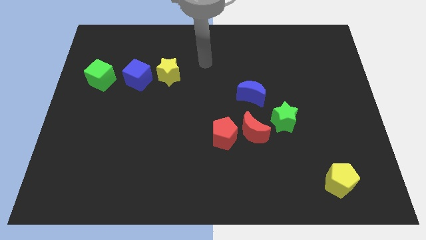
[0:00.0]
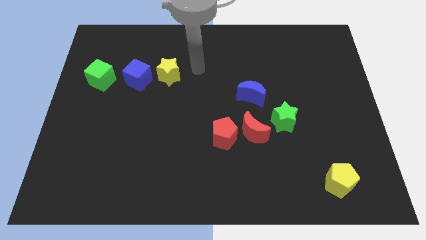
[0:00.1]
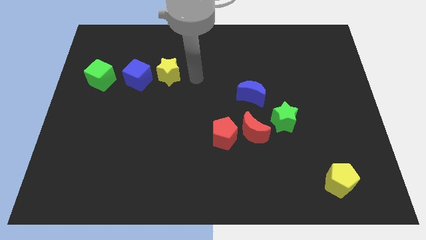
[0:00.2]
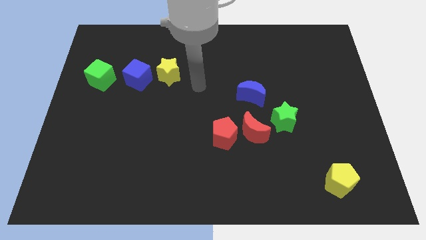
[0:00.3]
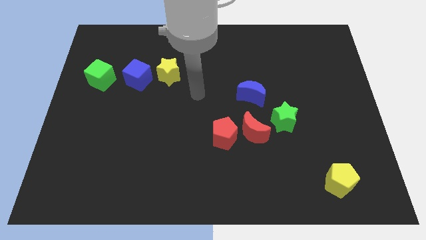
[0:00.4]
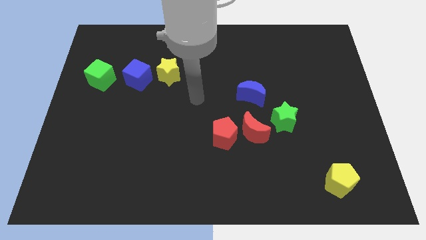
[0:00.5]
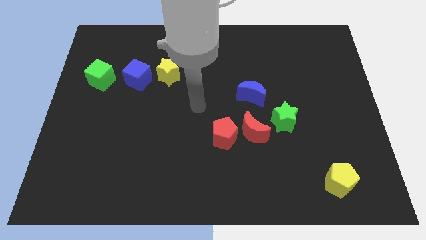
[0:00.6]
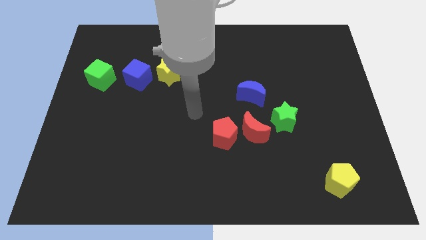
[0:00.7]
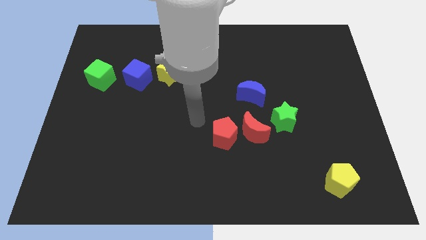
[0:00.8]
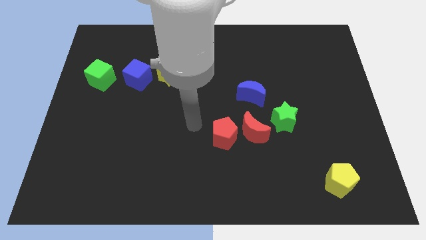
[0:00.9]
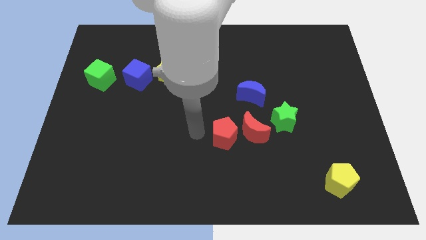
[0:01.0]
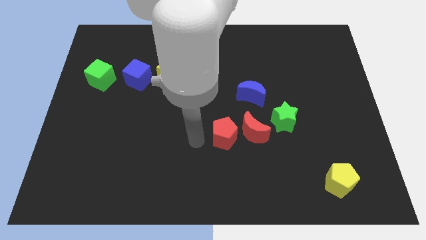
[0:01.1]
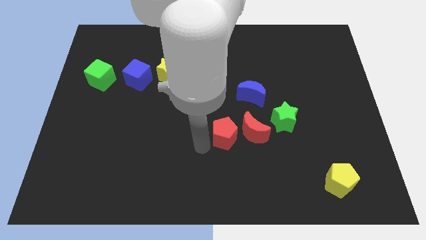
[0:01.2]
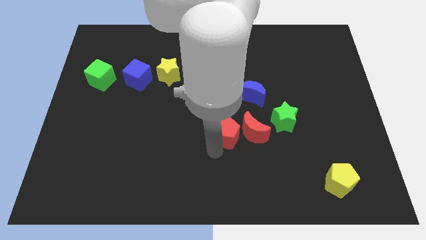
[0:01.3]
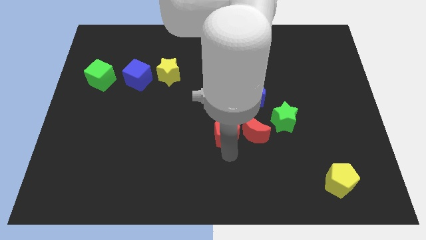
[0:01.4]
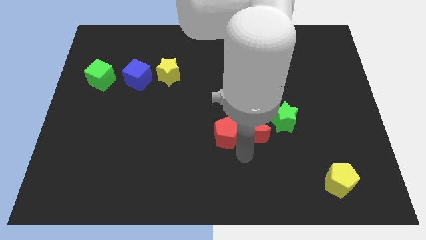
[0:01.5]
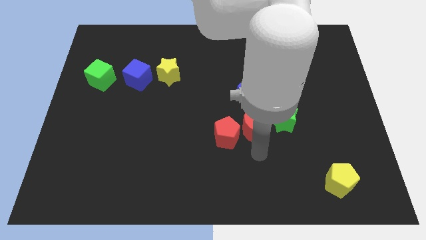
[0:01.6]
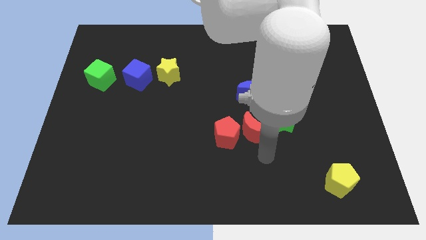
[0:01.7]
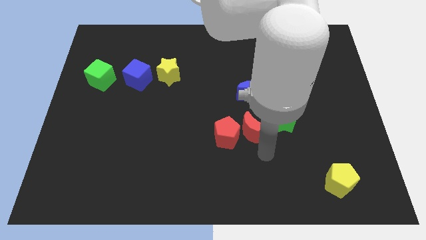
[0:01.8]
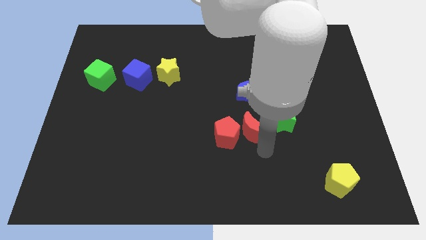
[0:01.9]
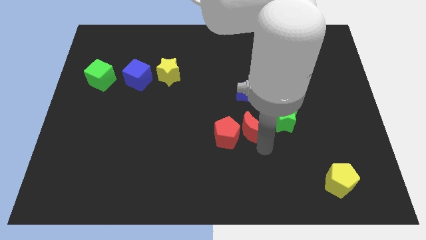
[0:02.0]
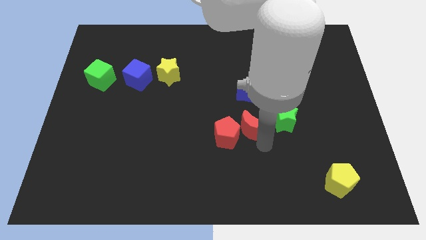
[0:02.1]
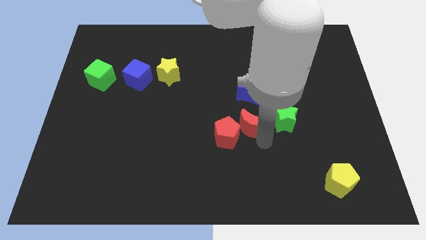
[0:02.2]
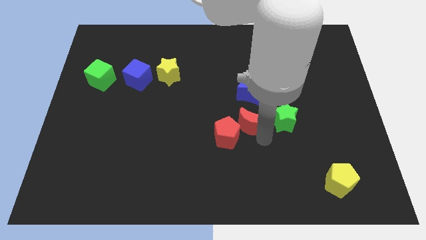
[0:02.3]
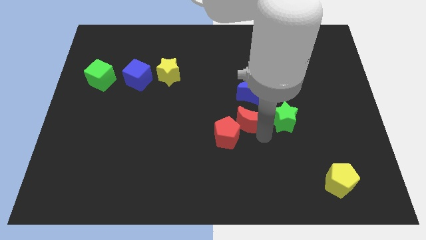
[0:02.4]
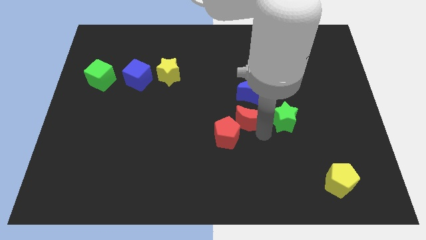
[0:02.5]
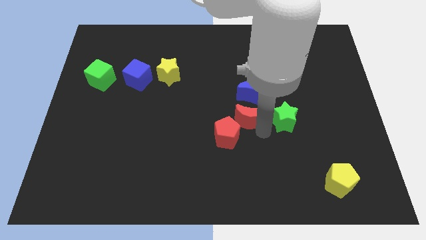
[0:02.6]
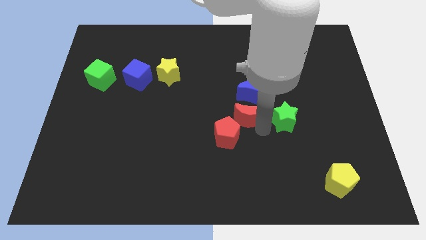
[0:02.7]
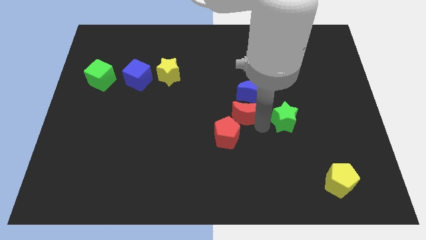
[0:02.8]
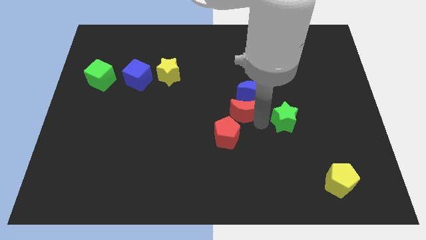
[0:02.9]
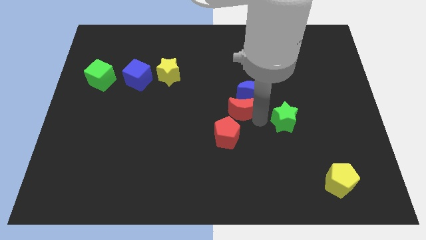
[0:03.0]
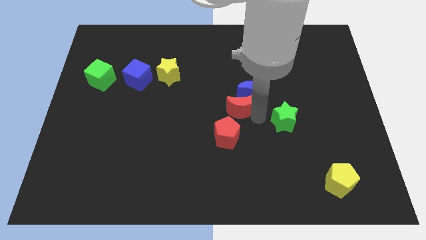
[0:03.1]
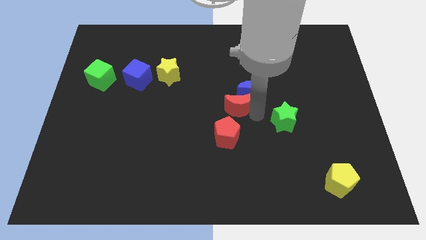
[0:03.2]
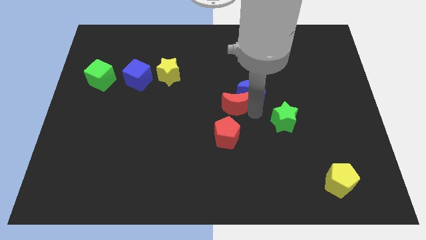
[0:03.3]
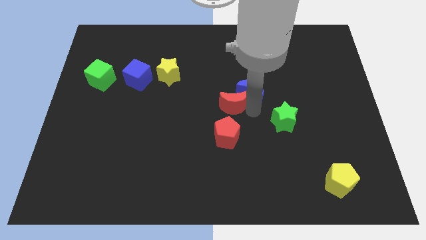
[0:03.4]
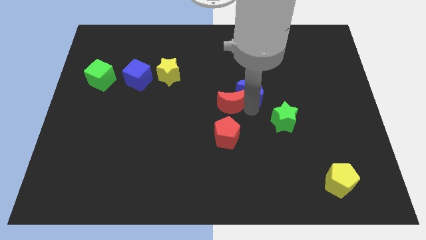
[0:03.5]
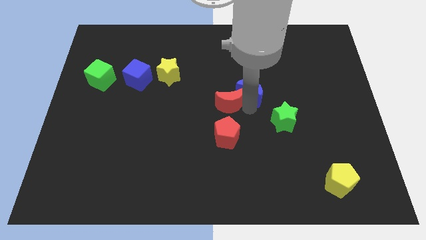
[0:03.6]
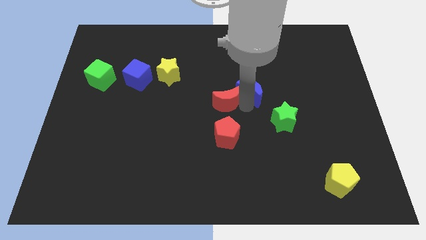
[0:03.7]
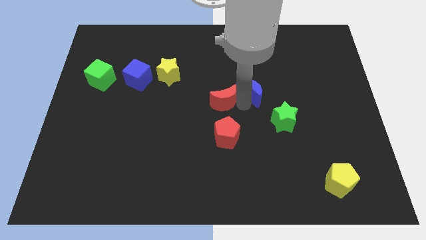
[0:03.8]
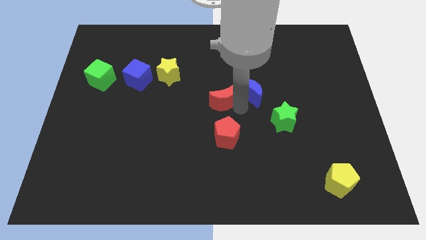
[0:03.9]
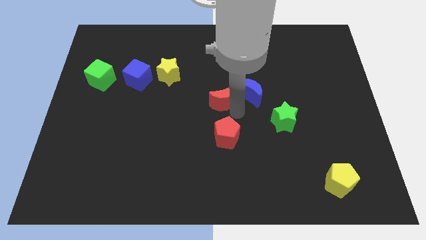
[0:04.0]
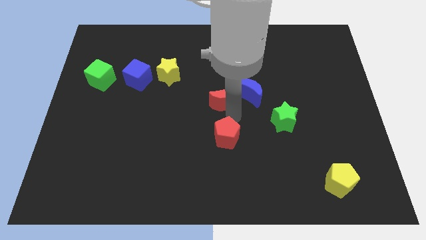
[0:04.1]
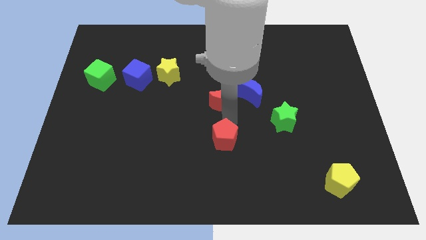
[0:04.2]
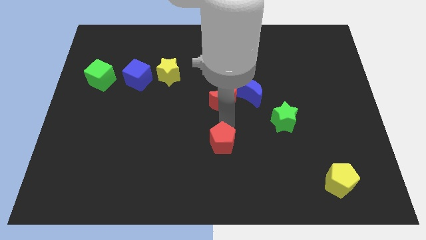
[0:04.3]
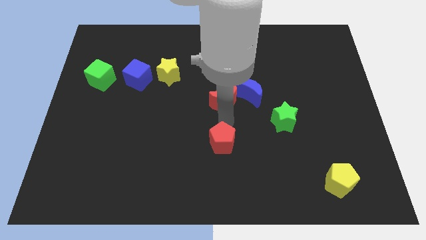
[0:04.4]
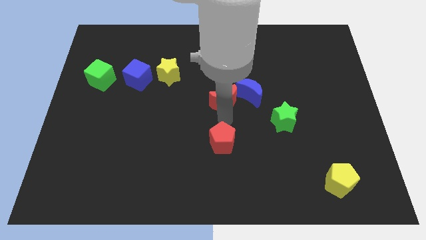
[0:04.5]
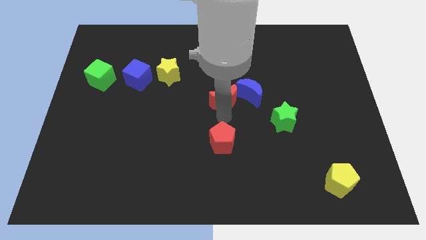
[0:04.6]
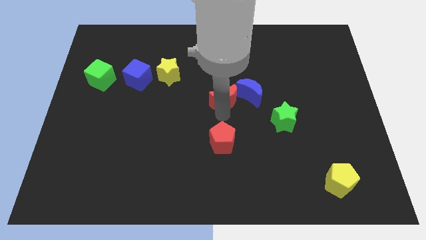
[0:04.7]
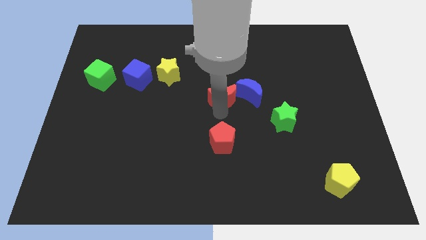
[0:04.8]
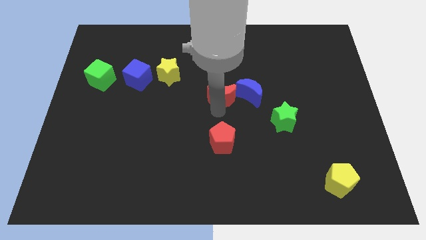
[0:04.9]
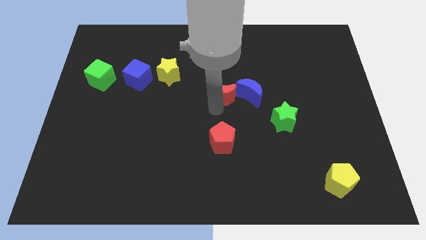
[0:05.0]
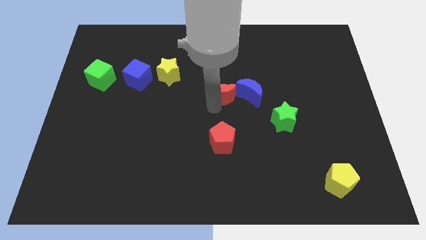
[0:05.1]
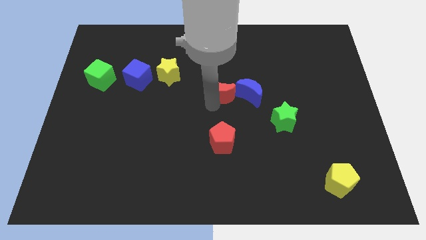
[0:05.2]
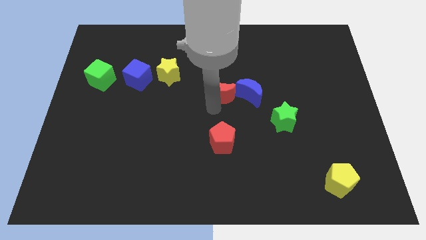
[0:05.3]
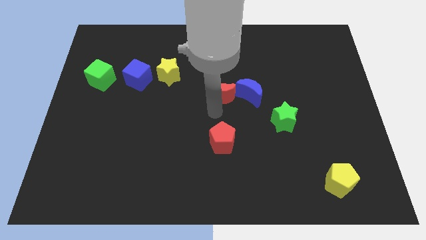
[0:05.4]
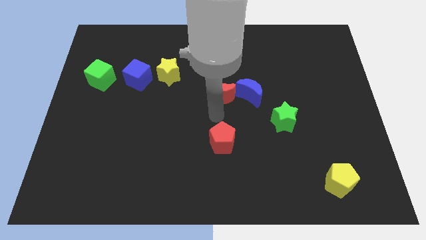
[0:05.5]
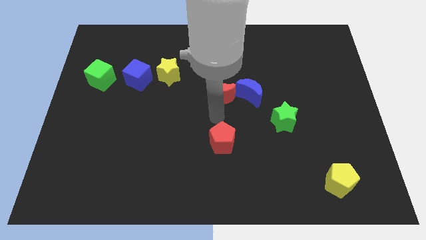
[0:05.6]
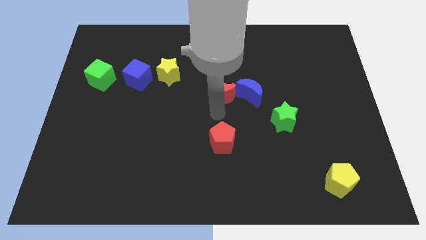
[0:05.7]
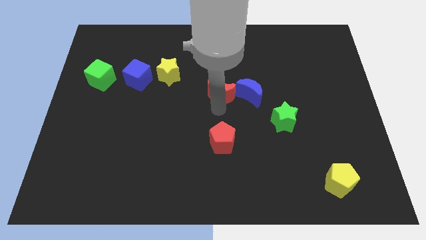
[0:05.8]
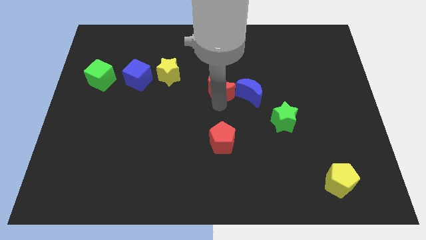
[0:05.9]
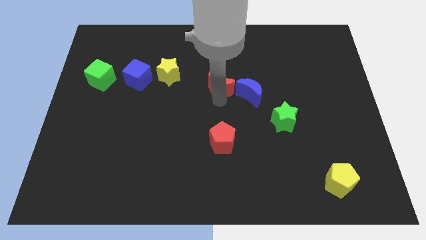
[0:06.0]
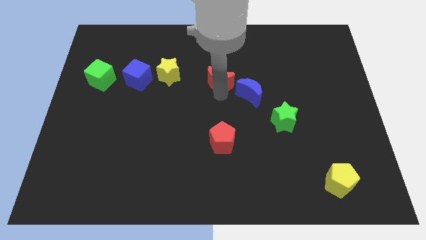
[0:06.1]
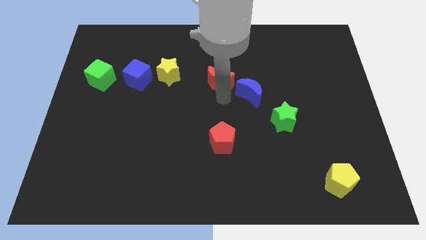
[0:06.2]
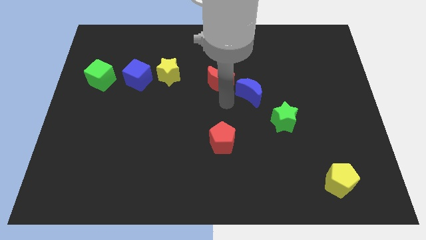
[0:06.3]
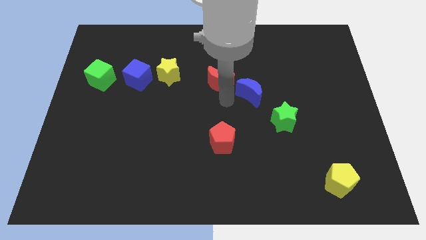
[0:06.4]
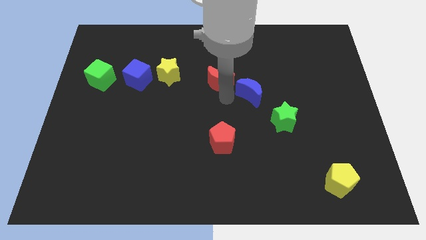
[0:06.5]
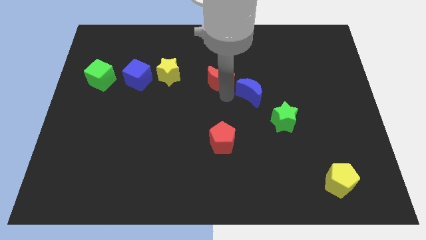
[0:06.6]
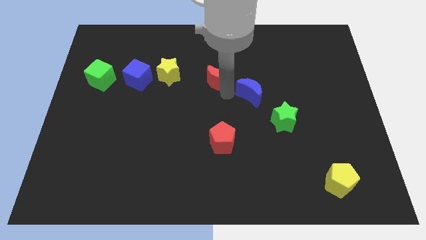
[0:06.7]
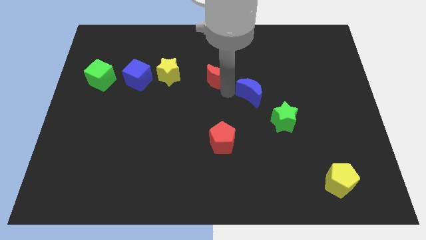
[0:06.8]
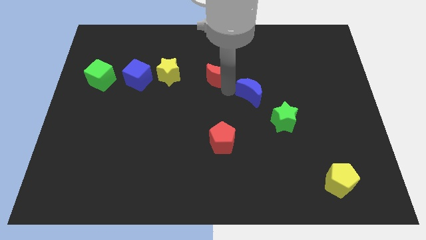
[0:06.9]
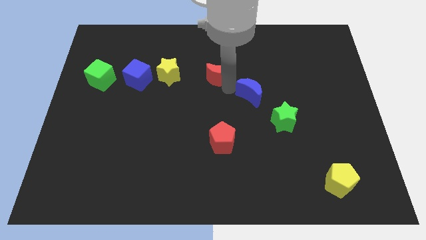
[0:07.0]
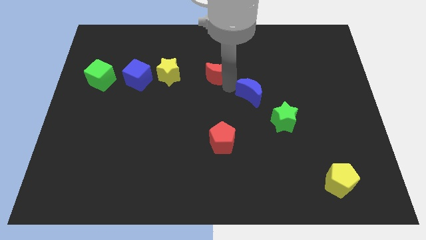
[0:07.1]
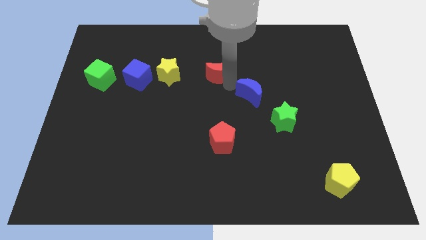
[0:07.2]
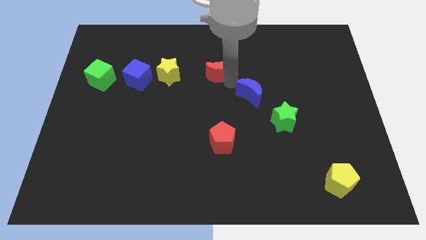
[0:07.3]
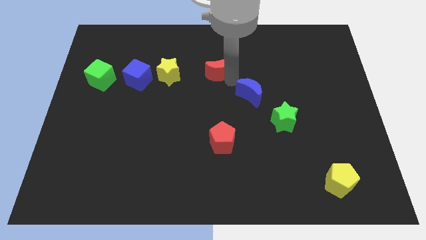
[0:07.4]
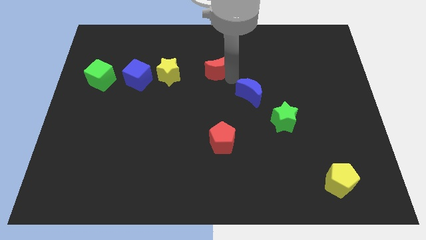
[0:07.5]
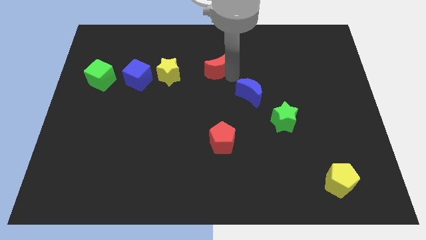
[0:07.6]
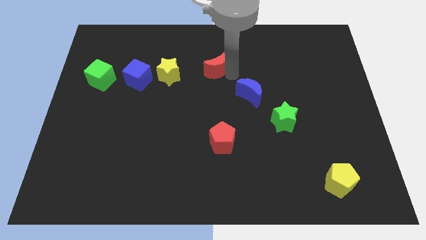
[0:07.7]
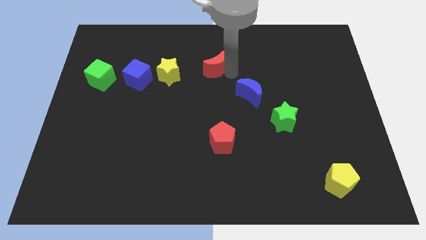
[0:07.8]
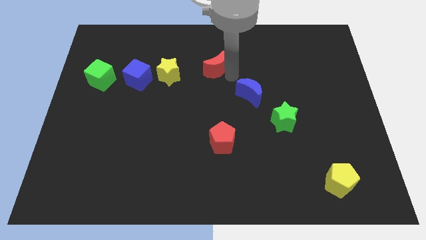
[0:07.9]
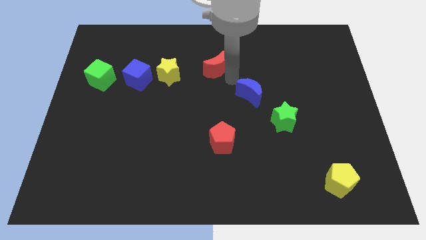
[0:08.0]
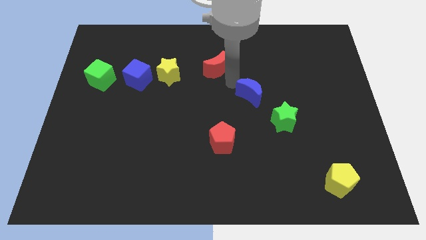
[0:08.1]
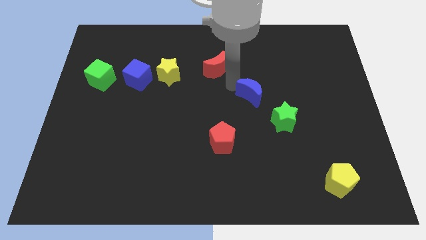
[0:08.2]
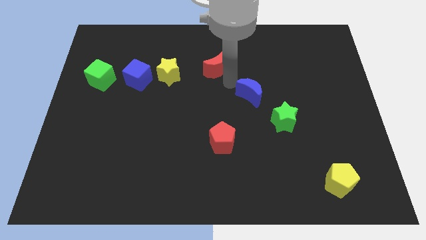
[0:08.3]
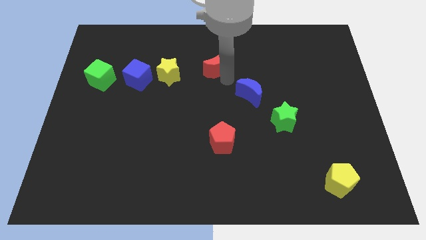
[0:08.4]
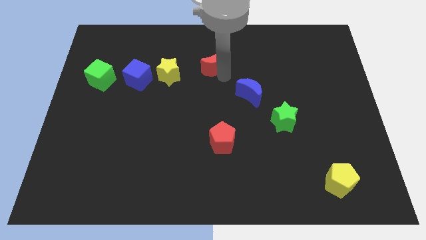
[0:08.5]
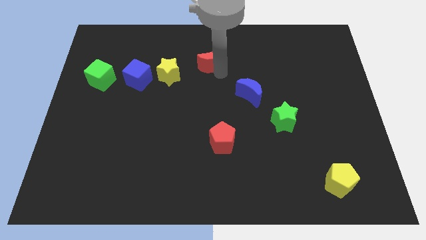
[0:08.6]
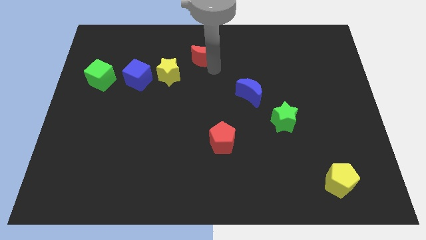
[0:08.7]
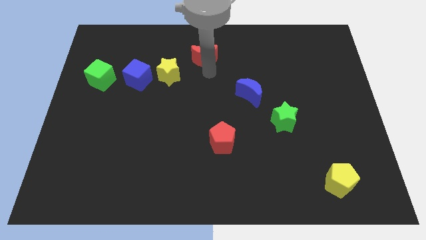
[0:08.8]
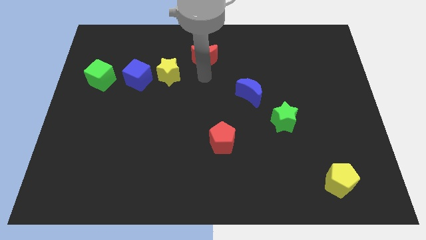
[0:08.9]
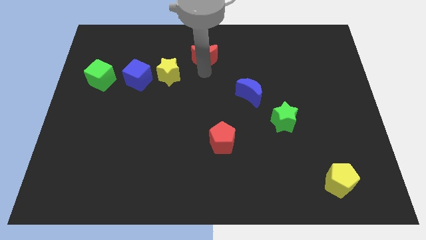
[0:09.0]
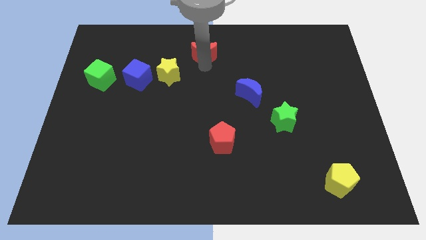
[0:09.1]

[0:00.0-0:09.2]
move the red moon to the top
